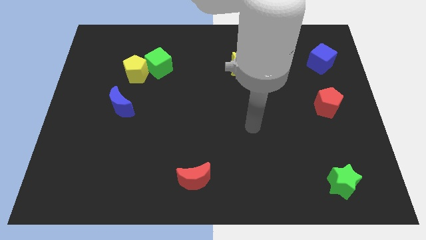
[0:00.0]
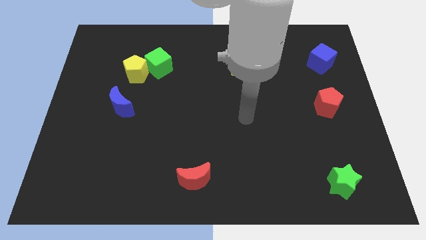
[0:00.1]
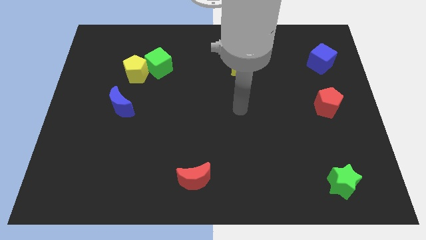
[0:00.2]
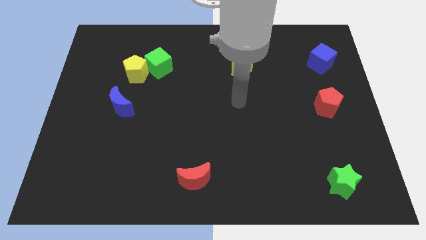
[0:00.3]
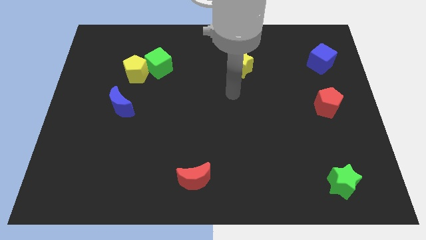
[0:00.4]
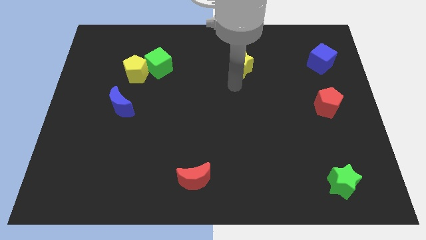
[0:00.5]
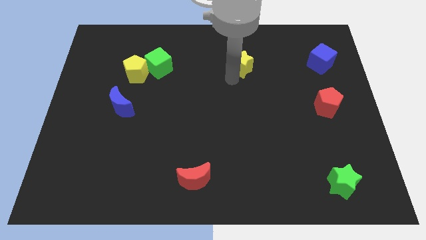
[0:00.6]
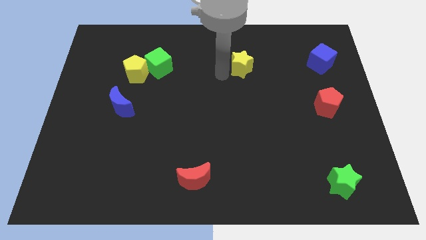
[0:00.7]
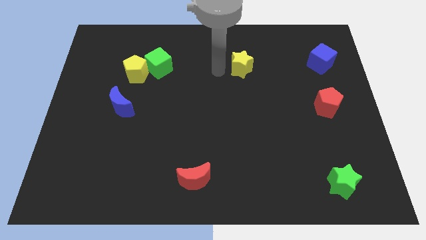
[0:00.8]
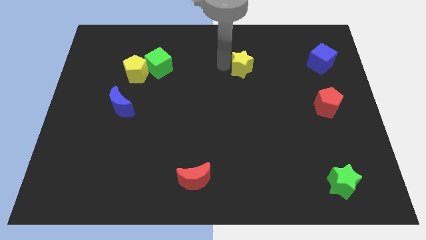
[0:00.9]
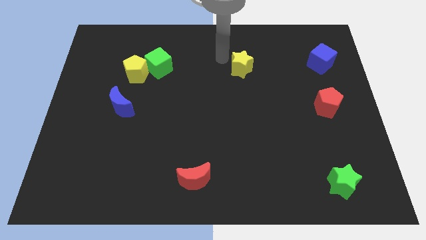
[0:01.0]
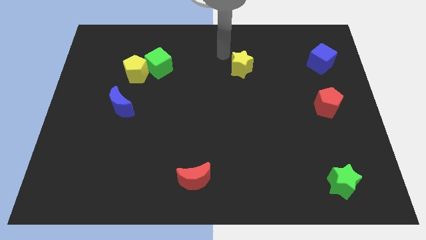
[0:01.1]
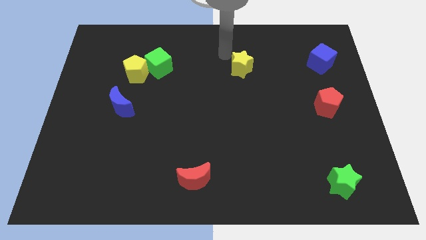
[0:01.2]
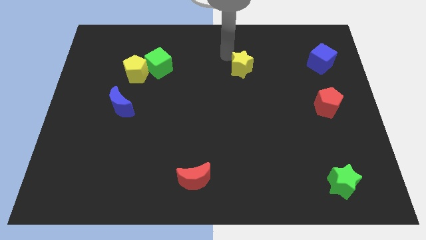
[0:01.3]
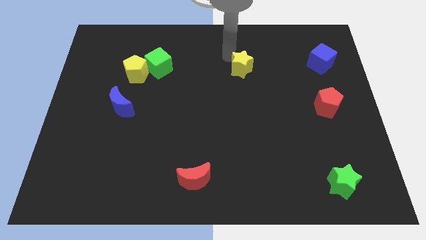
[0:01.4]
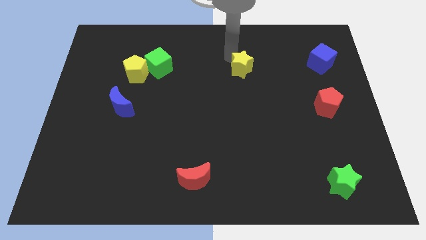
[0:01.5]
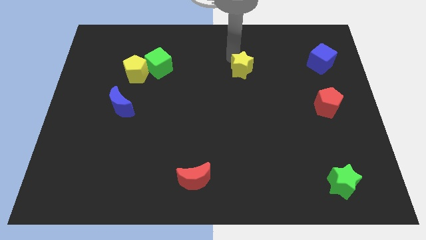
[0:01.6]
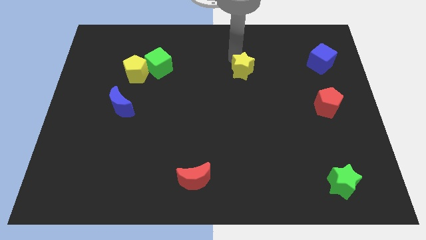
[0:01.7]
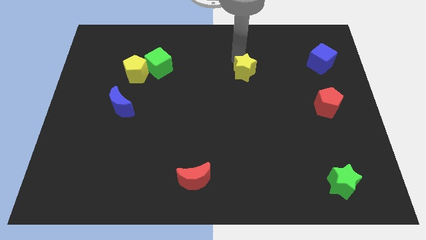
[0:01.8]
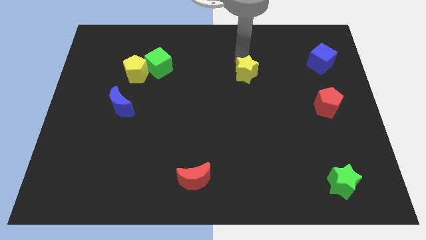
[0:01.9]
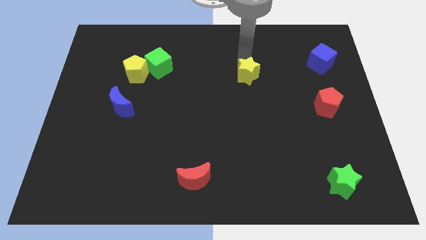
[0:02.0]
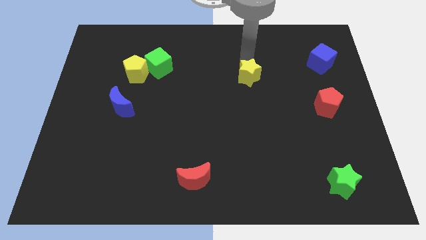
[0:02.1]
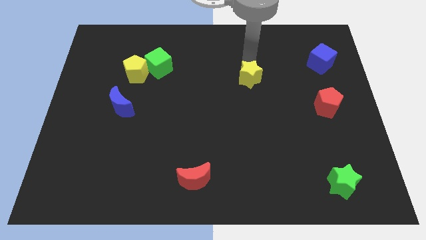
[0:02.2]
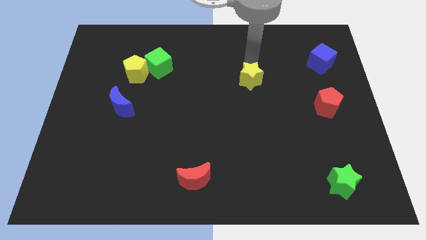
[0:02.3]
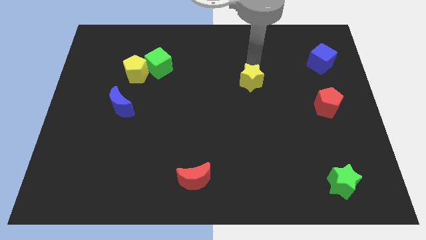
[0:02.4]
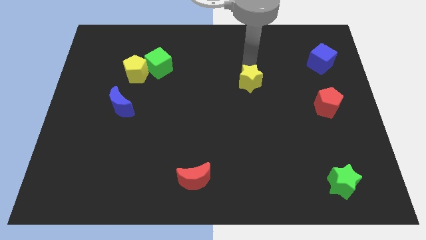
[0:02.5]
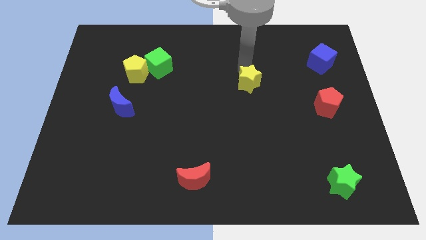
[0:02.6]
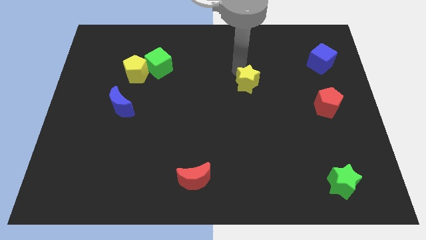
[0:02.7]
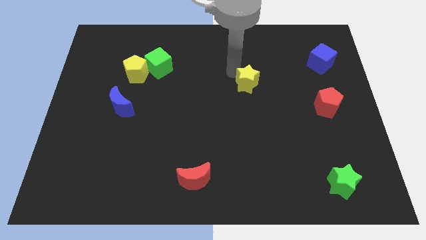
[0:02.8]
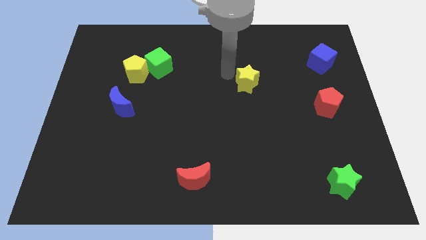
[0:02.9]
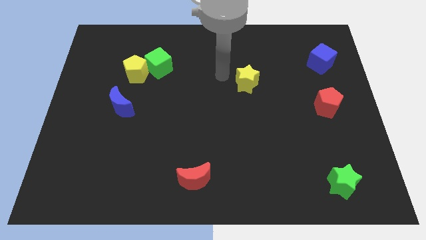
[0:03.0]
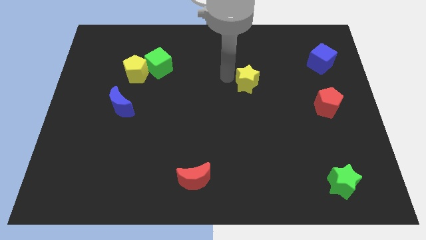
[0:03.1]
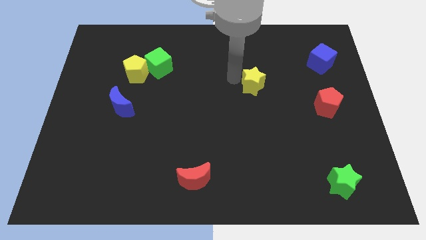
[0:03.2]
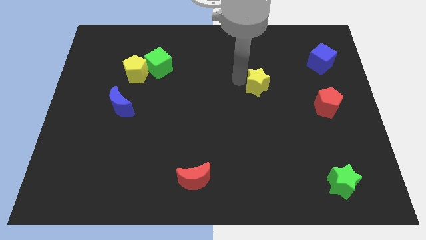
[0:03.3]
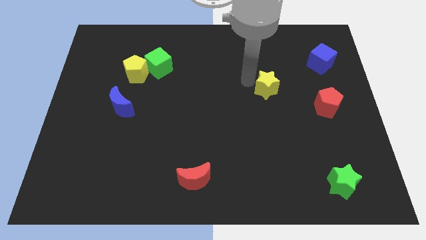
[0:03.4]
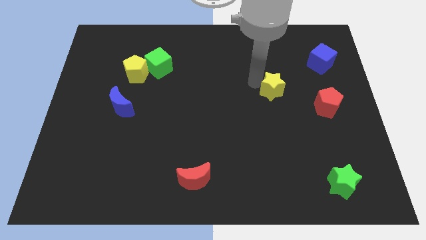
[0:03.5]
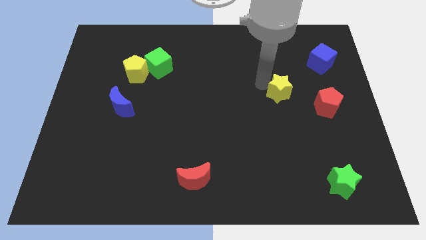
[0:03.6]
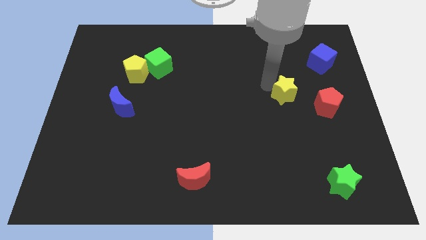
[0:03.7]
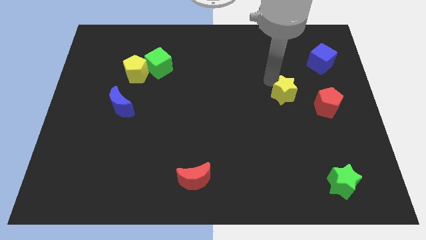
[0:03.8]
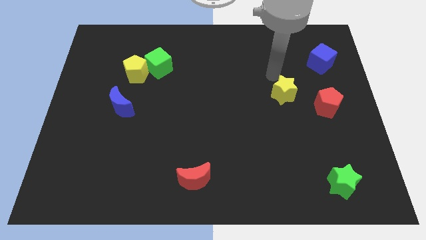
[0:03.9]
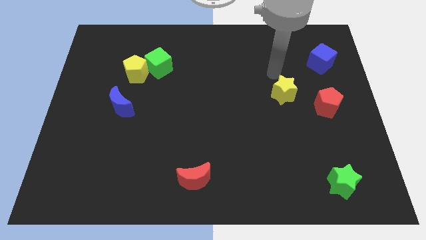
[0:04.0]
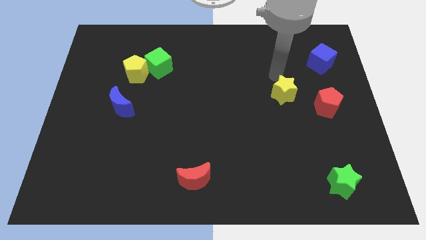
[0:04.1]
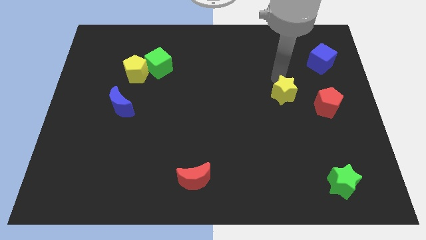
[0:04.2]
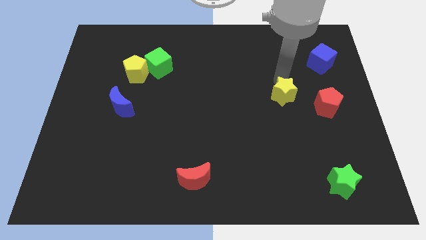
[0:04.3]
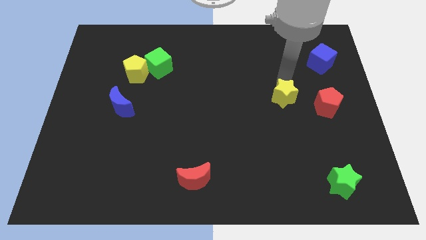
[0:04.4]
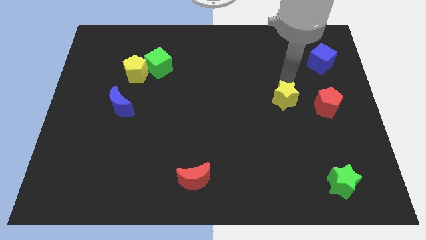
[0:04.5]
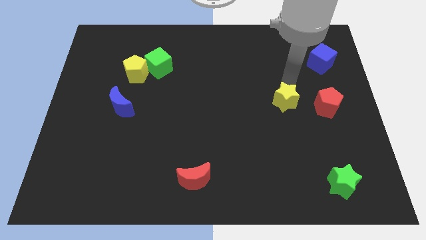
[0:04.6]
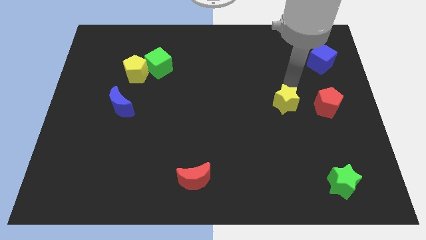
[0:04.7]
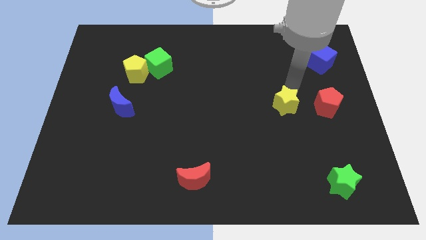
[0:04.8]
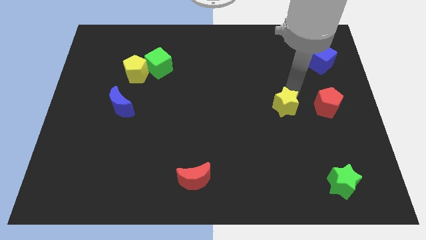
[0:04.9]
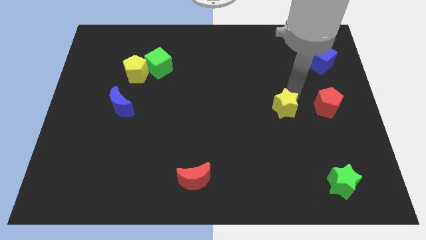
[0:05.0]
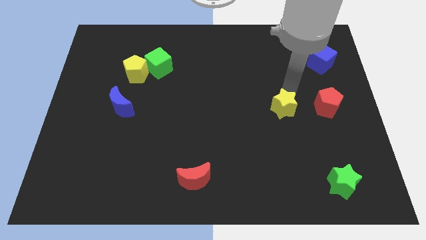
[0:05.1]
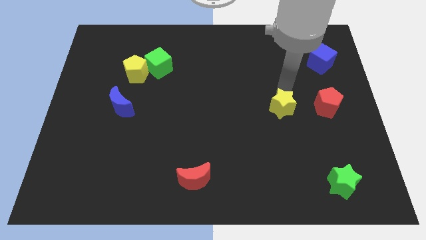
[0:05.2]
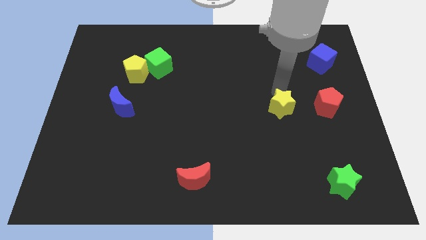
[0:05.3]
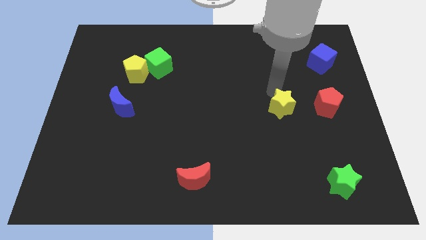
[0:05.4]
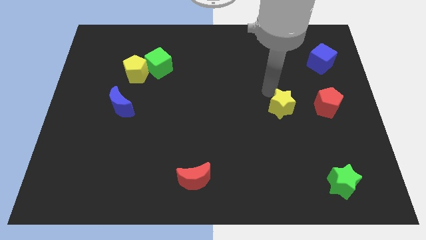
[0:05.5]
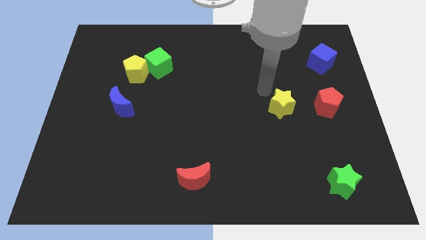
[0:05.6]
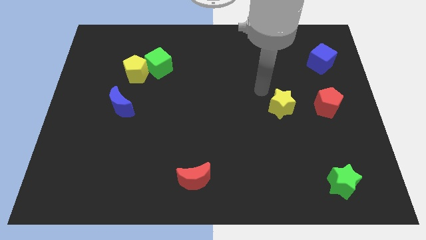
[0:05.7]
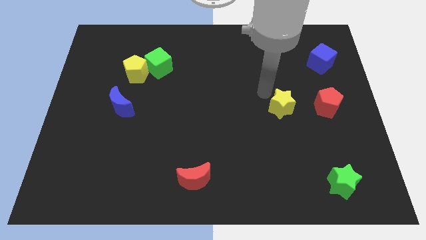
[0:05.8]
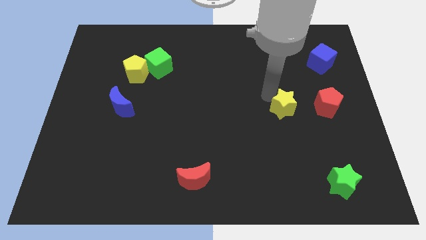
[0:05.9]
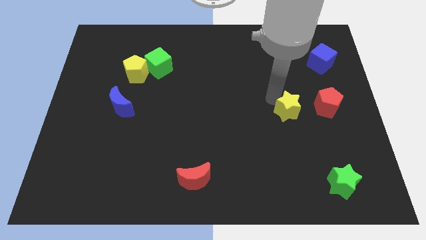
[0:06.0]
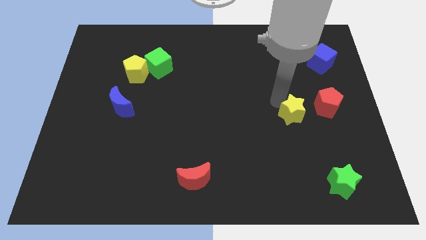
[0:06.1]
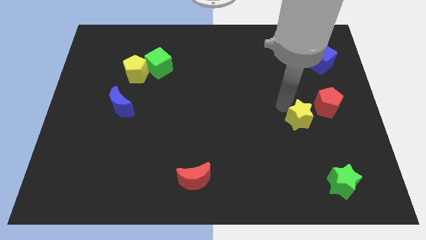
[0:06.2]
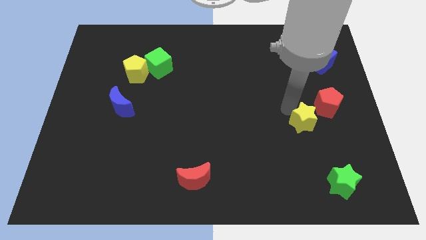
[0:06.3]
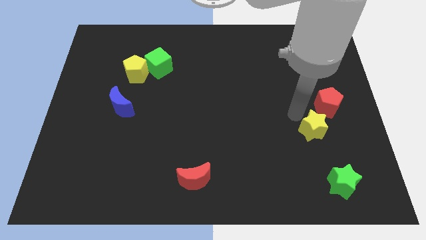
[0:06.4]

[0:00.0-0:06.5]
slide the yellow star to the bottom of the red pentagon
